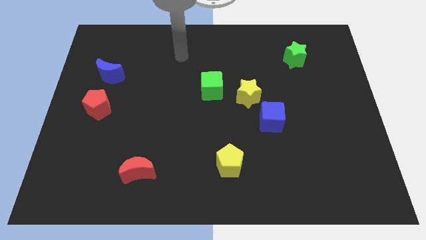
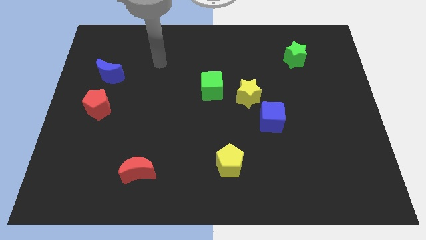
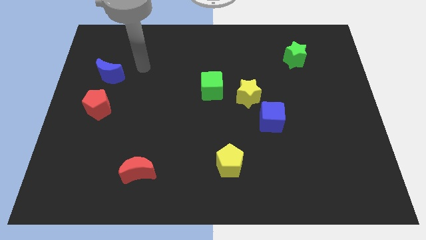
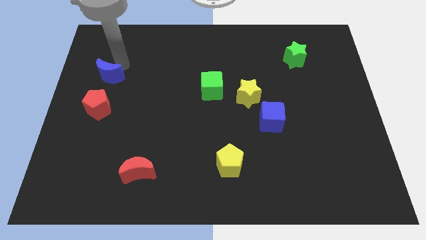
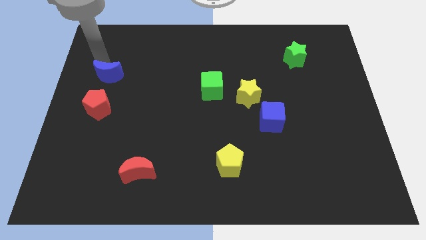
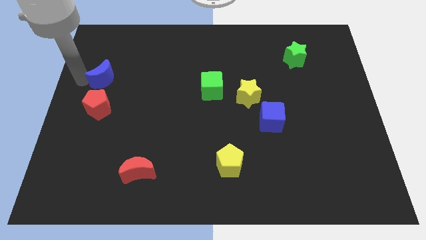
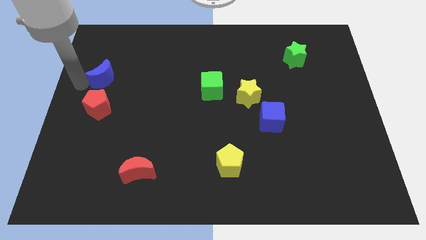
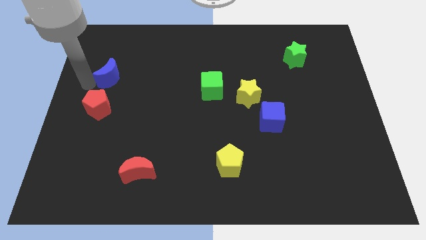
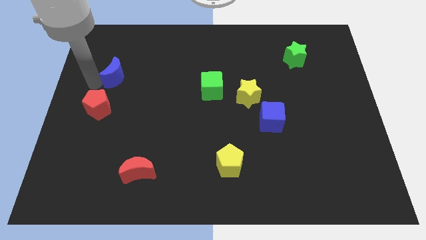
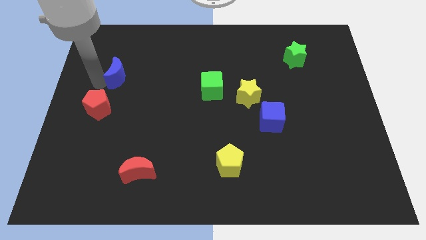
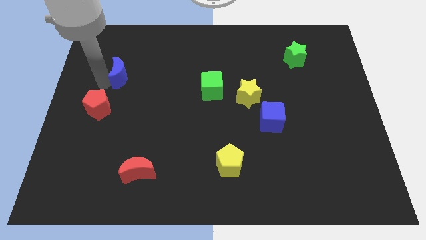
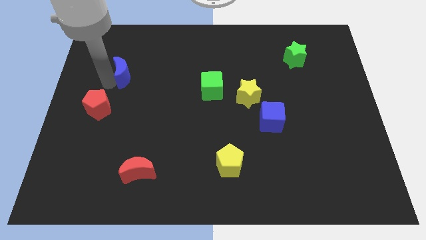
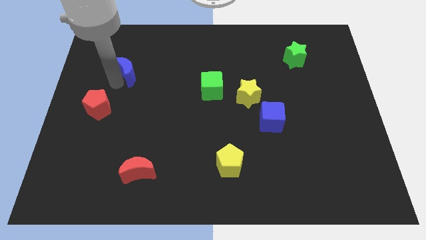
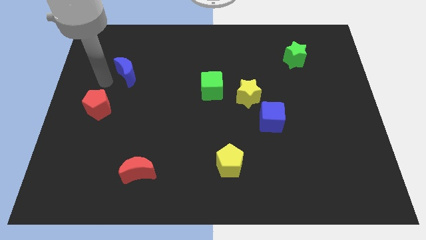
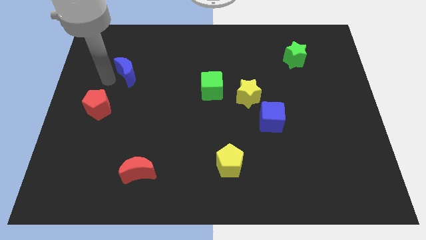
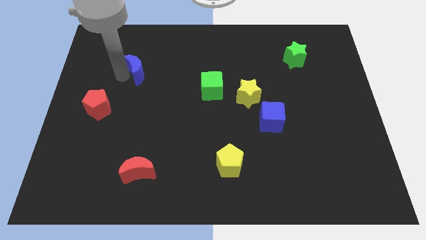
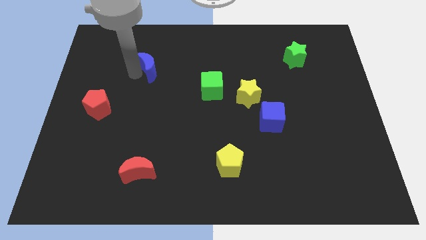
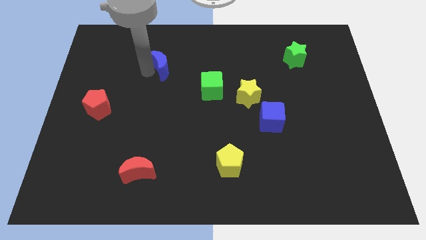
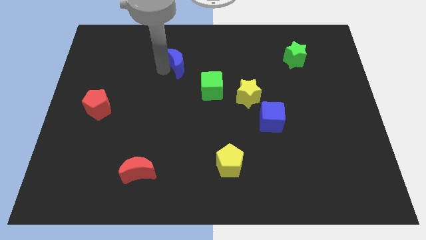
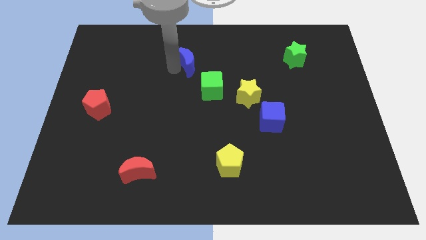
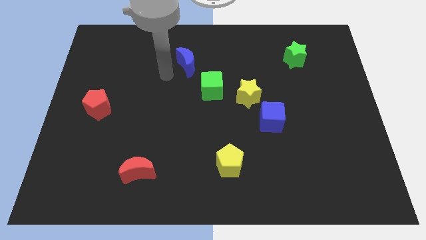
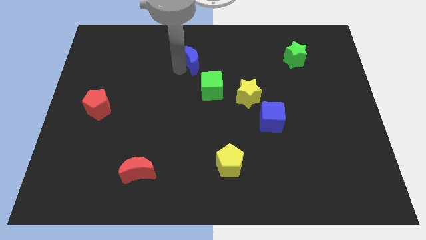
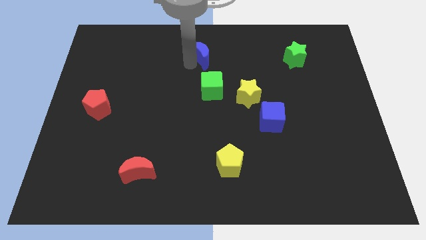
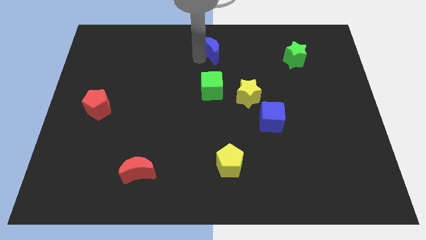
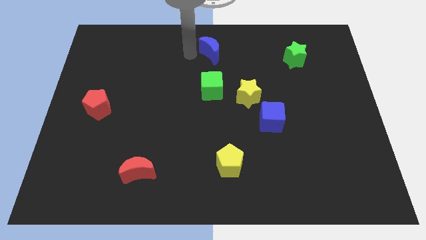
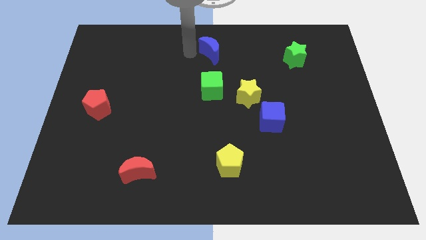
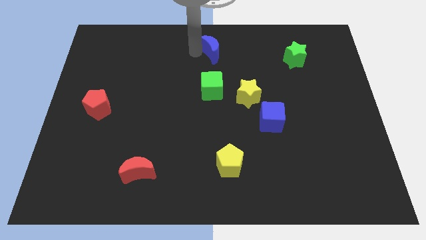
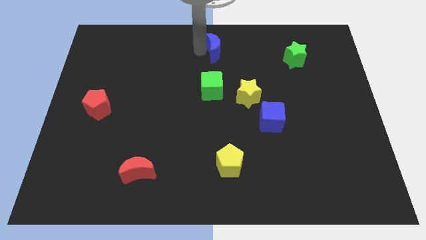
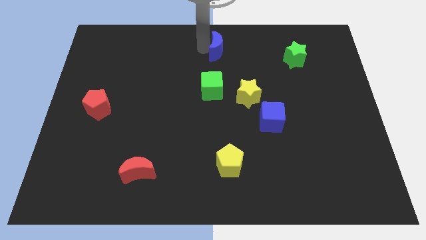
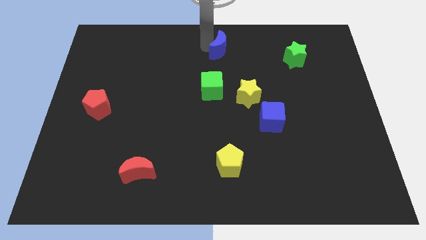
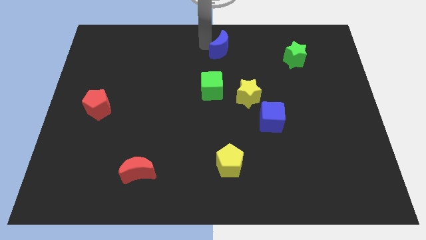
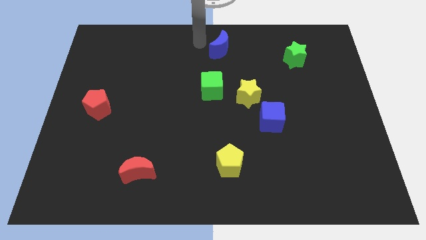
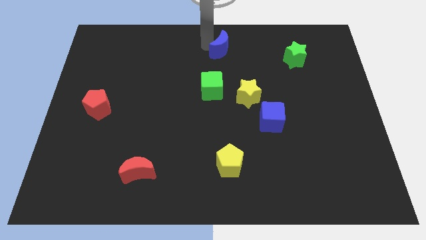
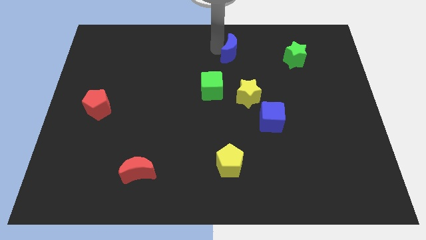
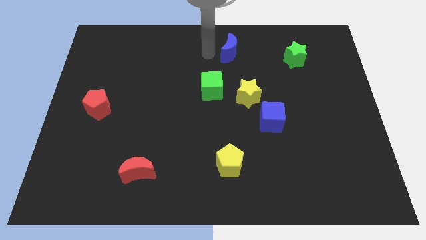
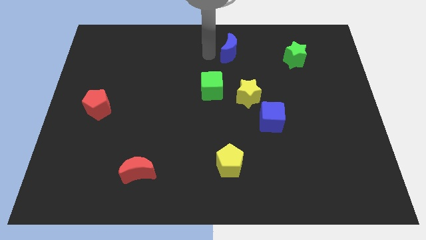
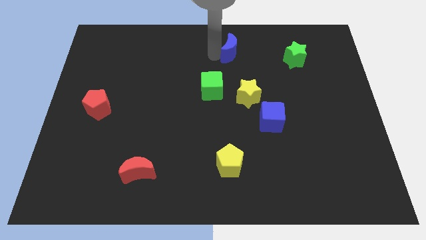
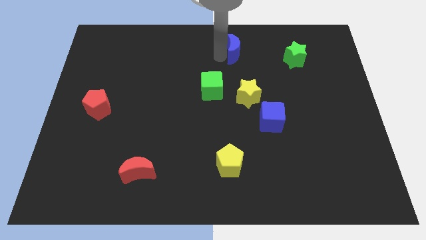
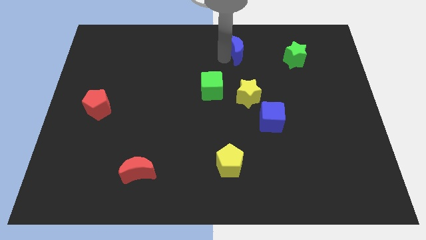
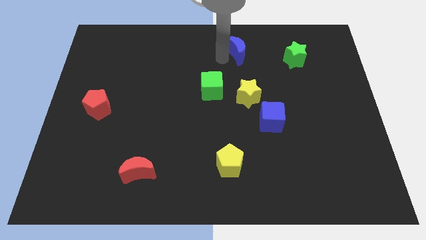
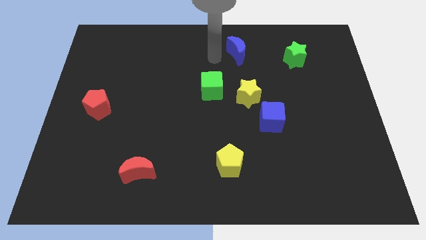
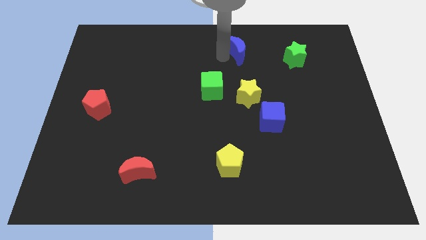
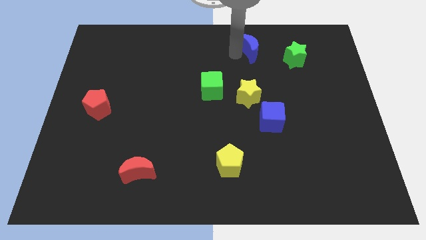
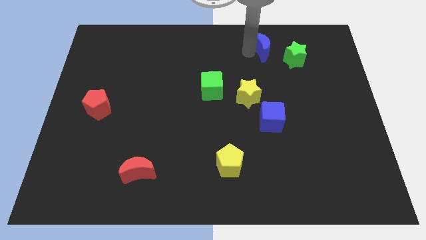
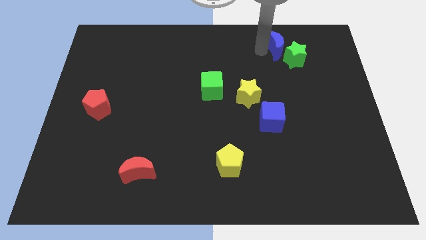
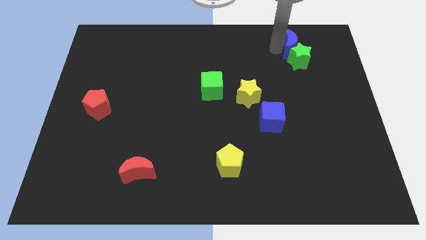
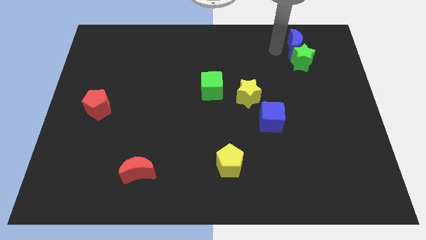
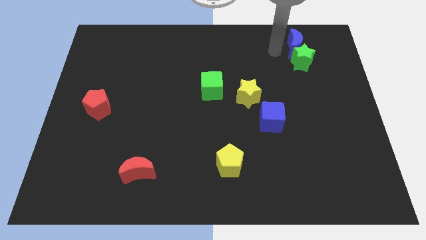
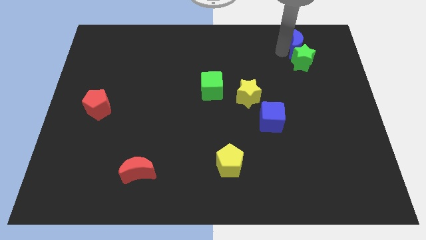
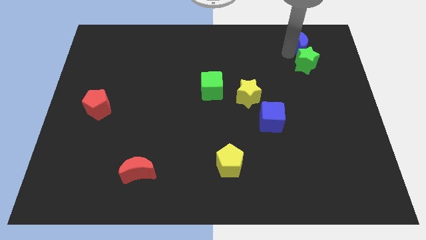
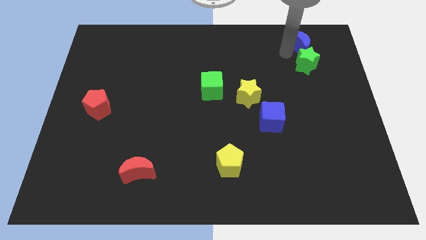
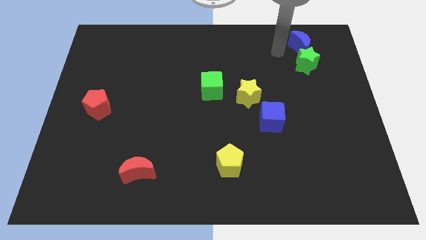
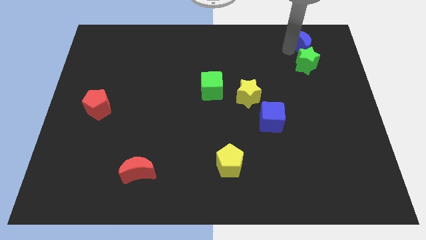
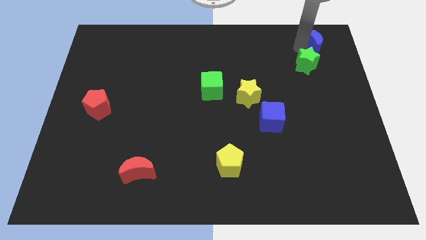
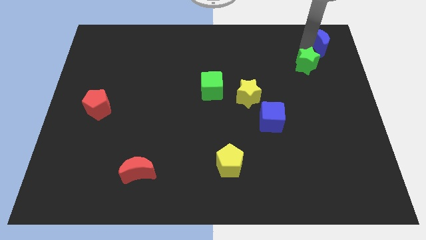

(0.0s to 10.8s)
push the blue moon to the upper right corner

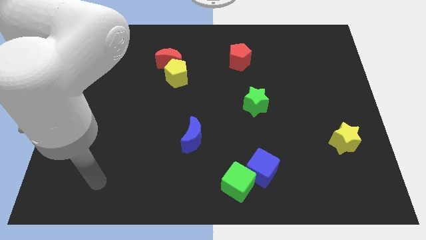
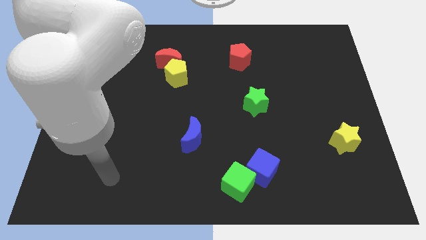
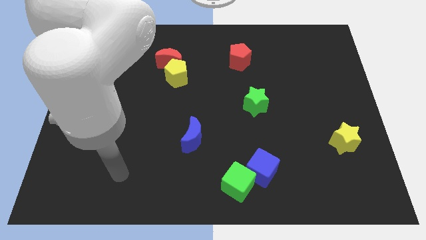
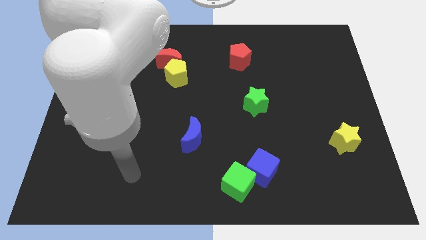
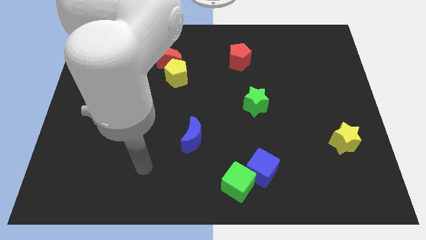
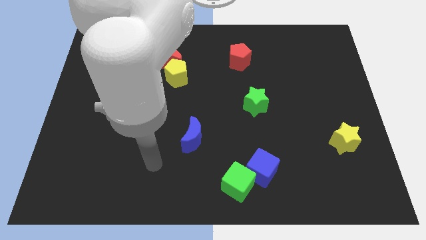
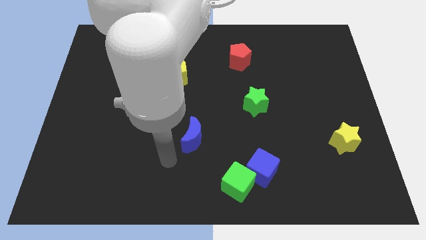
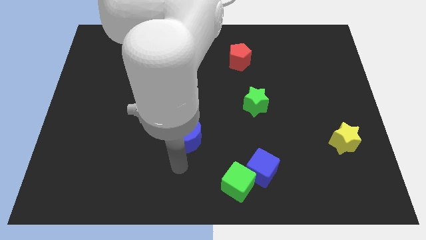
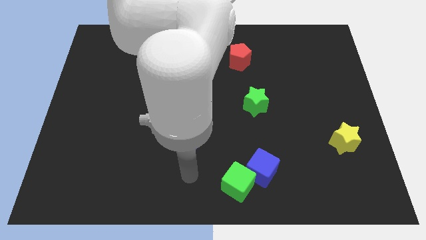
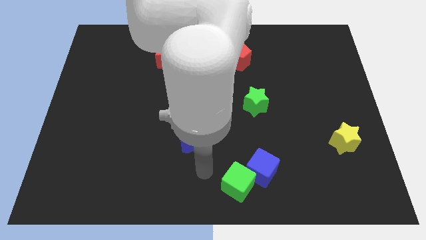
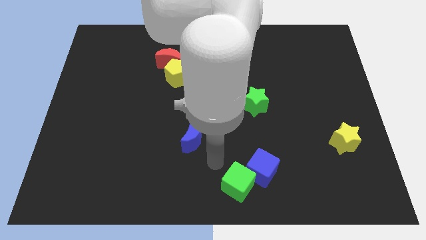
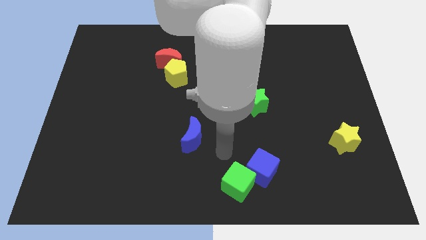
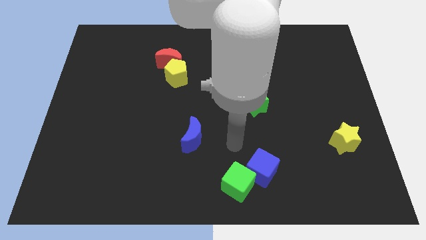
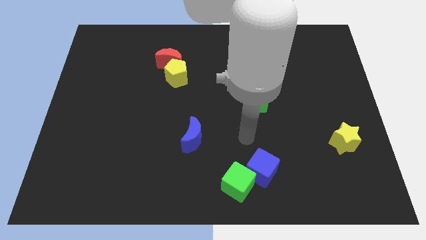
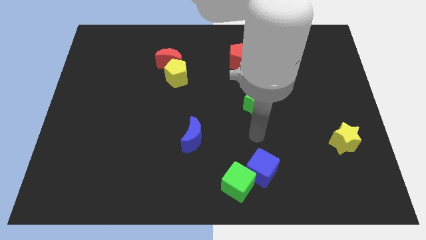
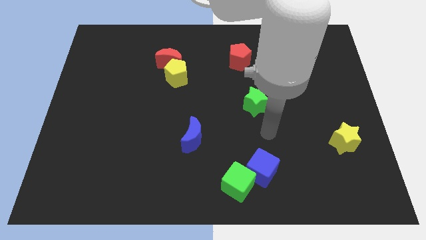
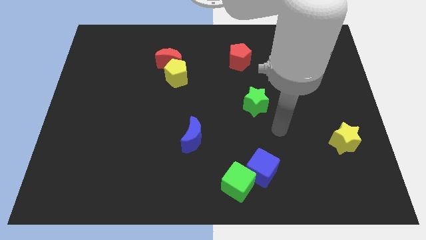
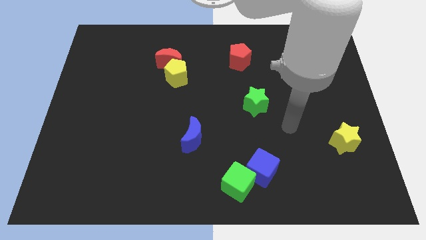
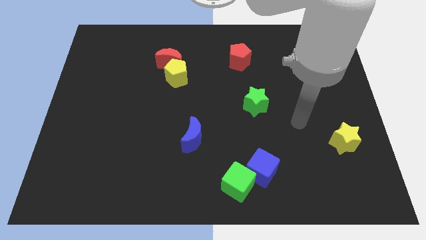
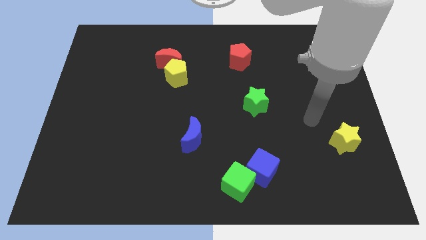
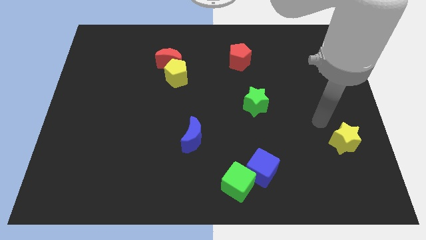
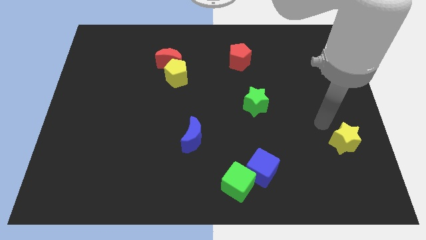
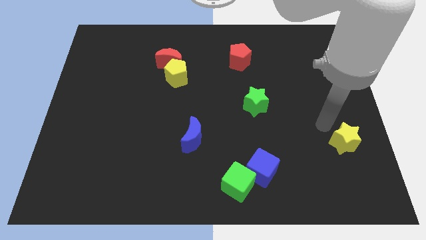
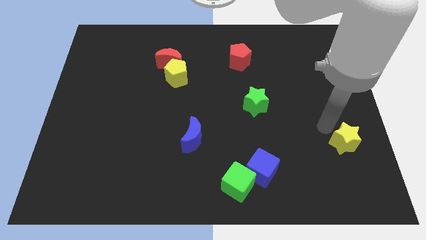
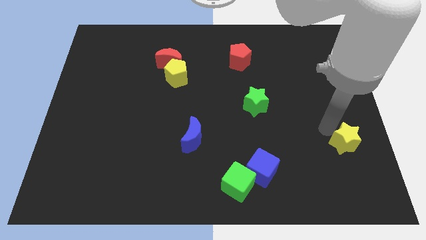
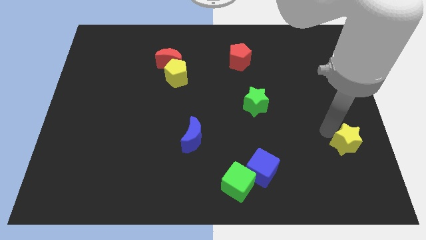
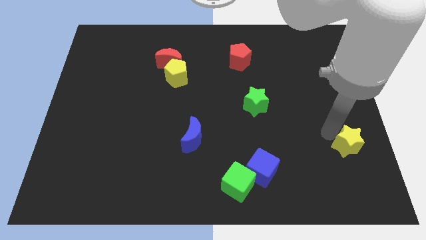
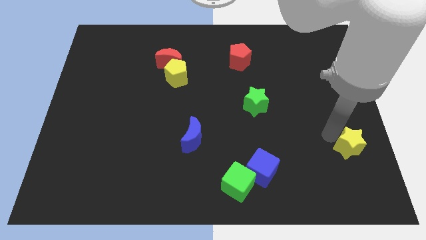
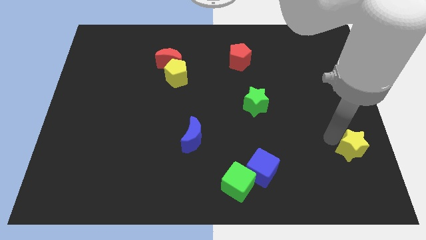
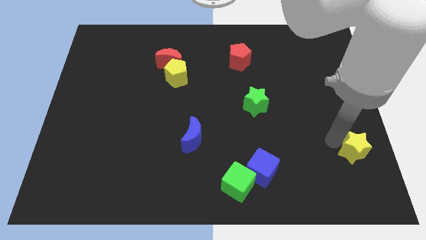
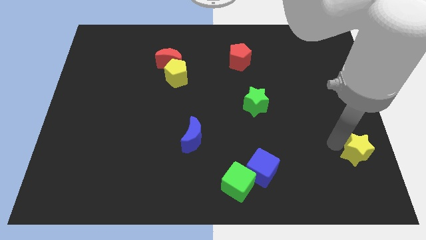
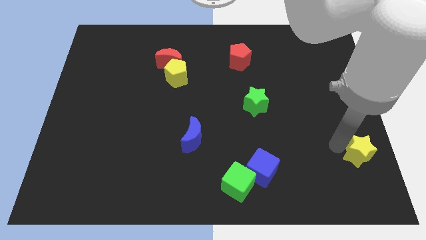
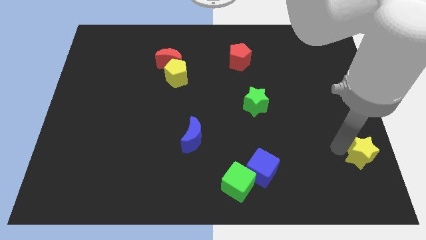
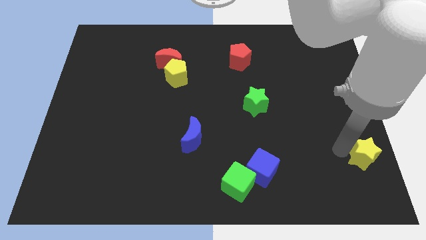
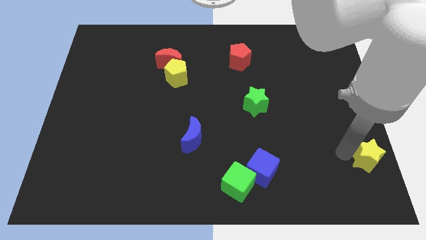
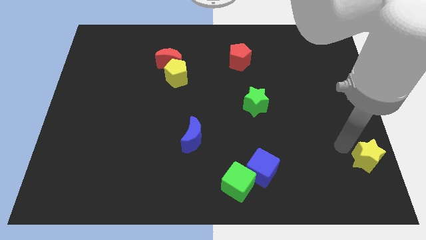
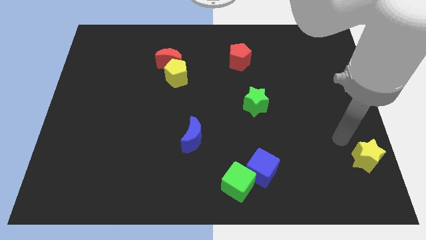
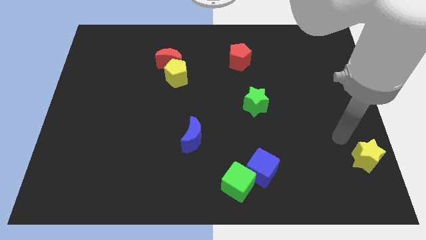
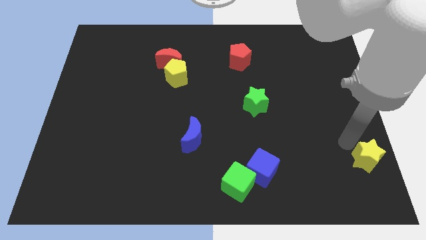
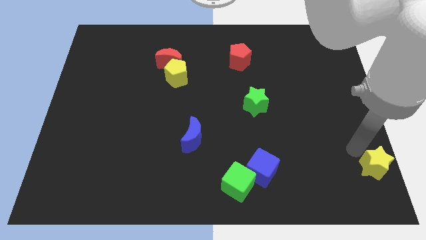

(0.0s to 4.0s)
slide the yellow star to the bottom right of the board
